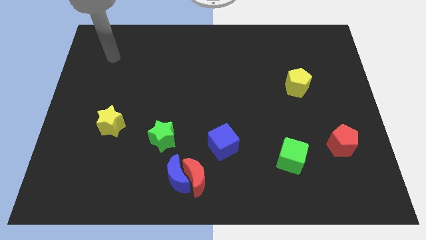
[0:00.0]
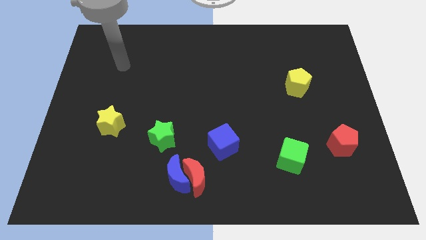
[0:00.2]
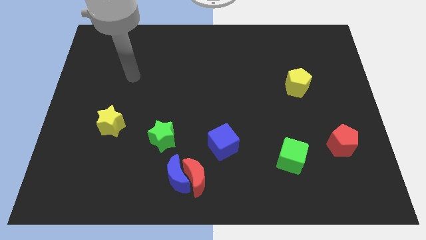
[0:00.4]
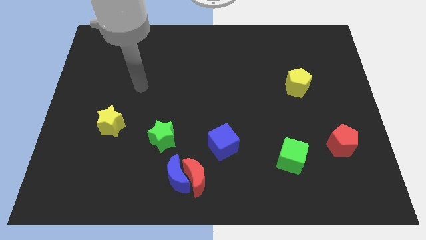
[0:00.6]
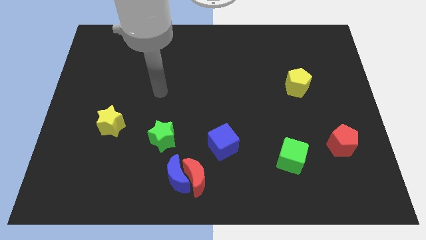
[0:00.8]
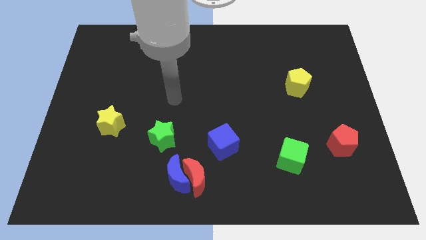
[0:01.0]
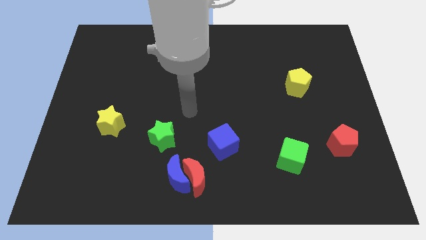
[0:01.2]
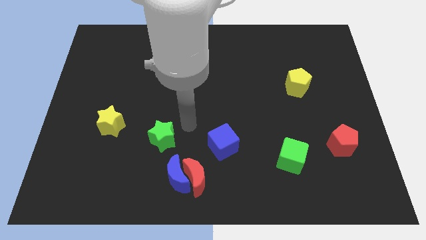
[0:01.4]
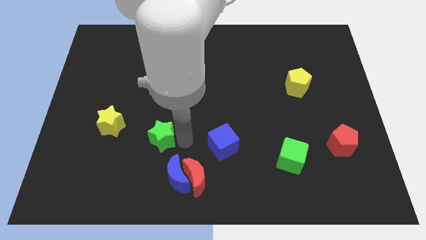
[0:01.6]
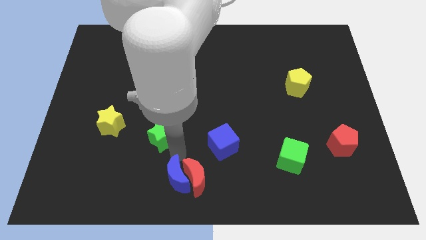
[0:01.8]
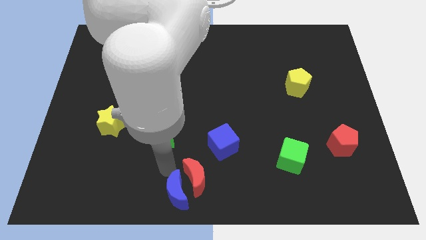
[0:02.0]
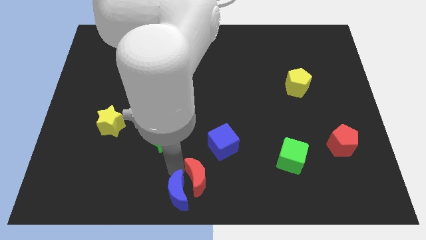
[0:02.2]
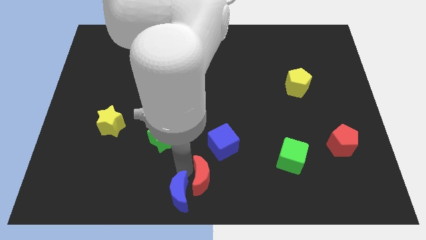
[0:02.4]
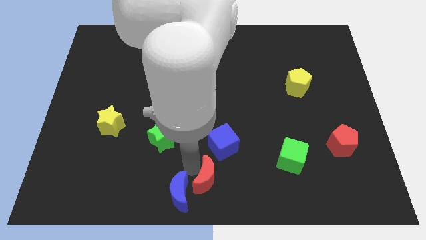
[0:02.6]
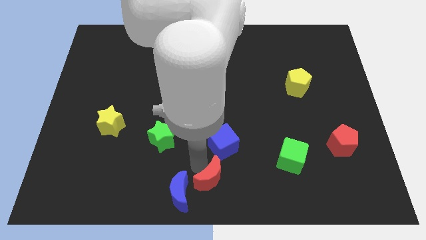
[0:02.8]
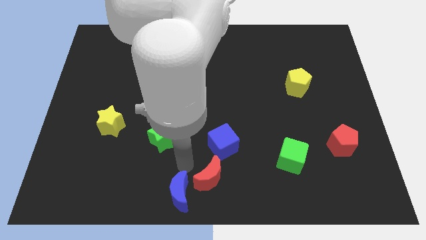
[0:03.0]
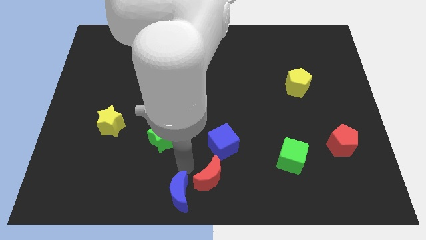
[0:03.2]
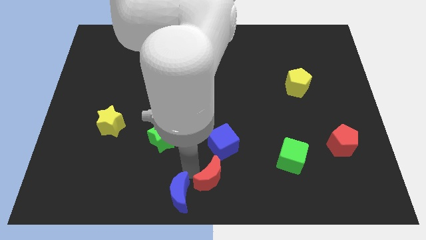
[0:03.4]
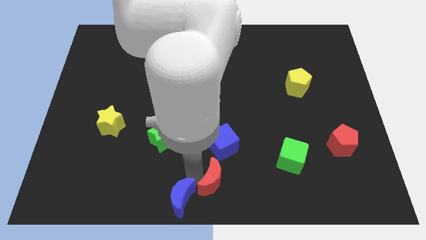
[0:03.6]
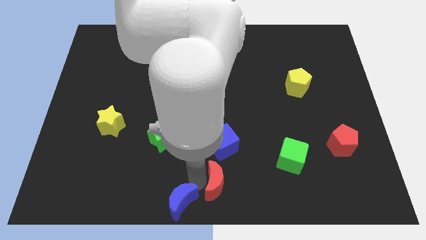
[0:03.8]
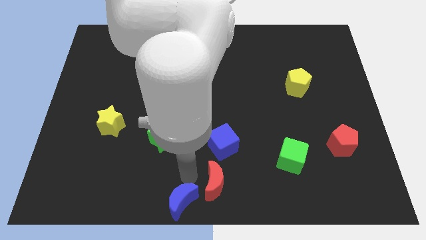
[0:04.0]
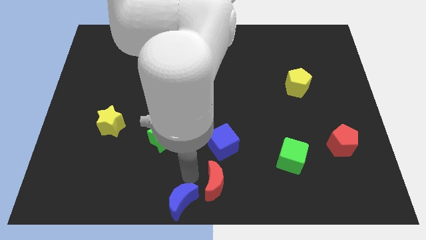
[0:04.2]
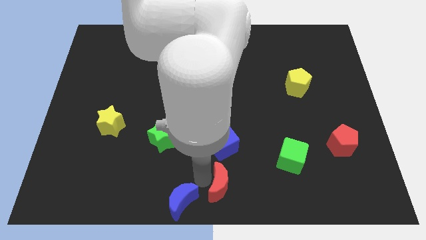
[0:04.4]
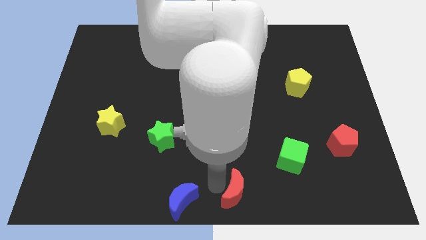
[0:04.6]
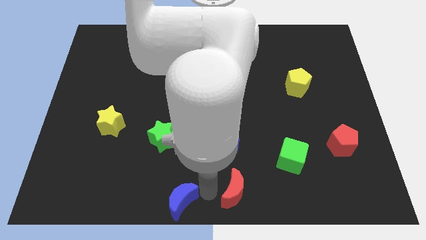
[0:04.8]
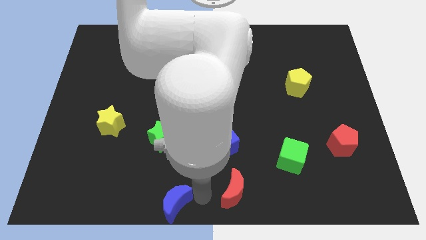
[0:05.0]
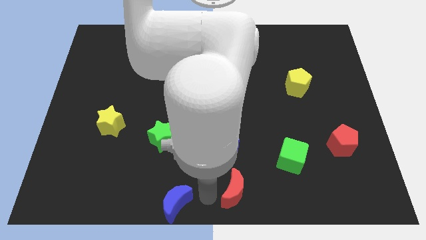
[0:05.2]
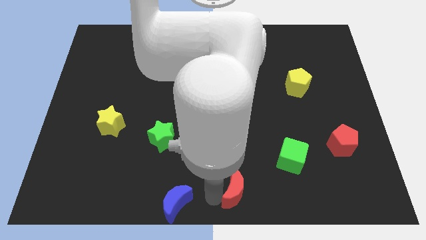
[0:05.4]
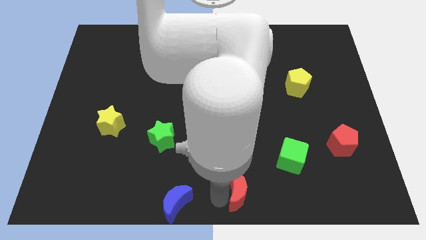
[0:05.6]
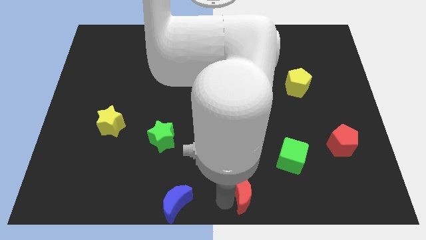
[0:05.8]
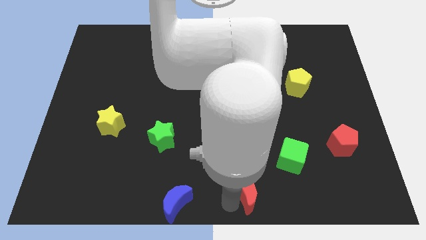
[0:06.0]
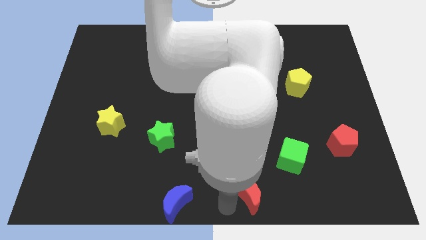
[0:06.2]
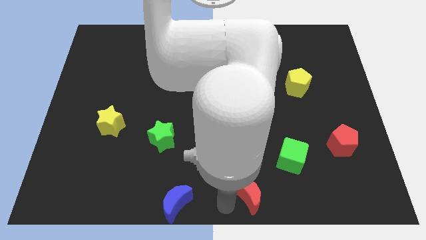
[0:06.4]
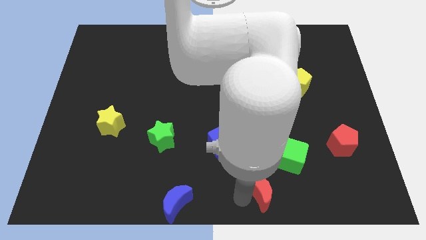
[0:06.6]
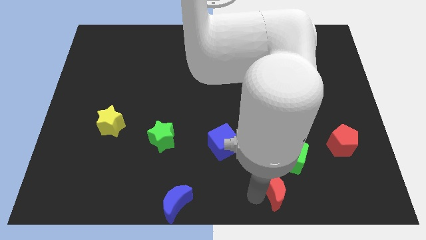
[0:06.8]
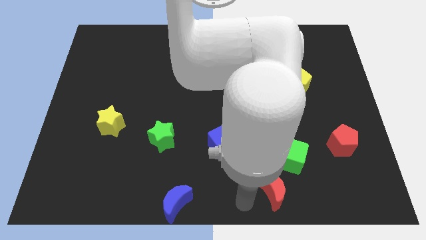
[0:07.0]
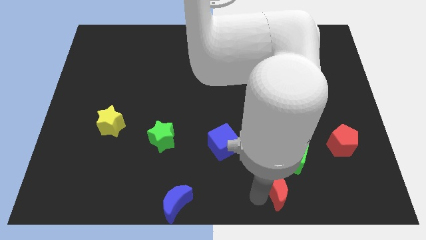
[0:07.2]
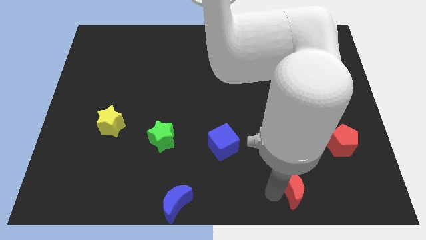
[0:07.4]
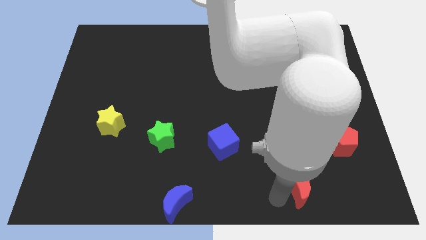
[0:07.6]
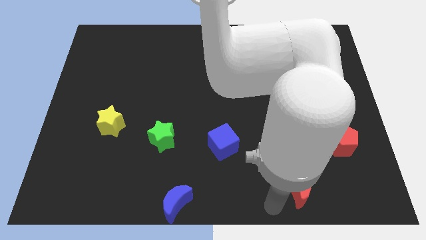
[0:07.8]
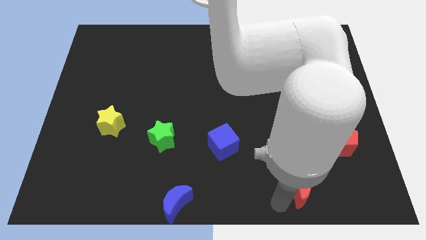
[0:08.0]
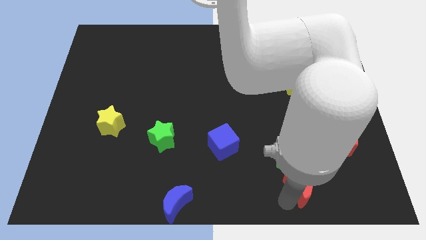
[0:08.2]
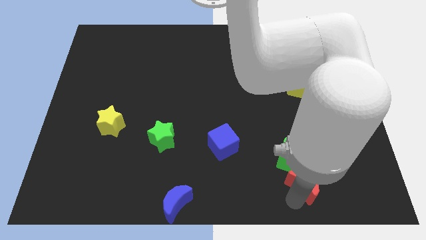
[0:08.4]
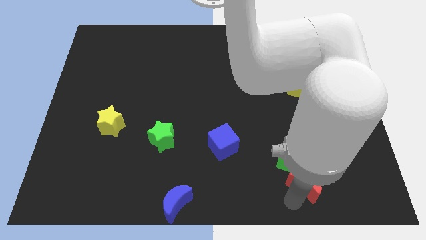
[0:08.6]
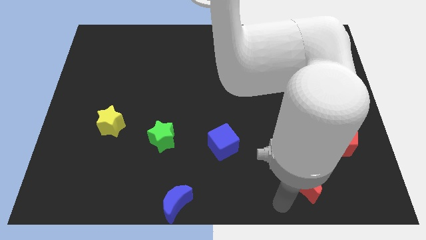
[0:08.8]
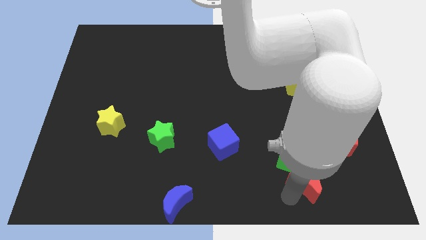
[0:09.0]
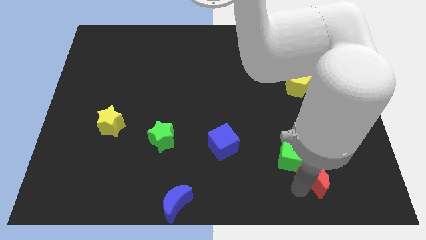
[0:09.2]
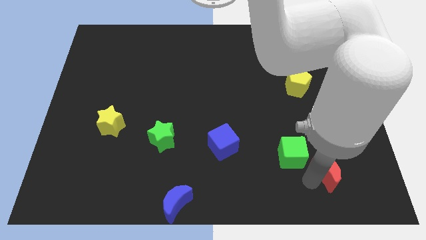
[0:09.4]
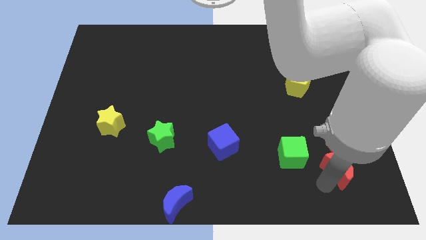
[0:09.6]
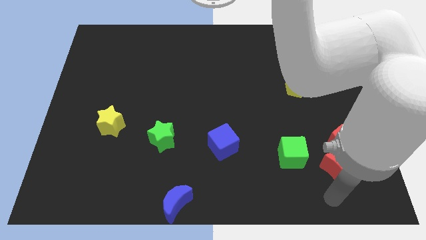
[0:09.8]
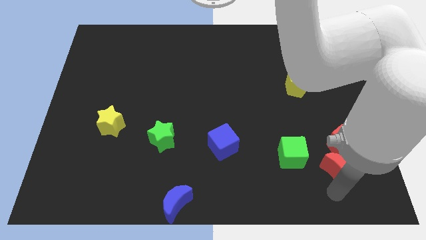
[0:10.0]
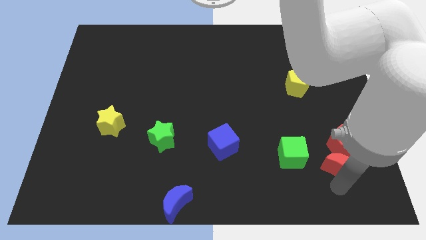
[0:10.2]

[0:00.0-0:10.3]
move the red moon towards the red pentagon

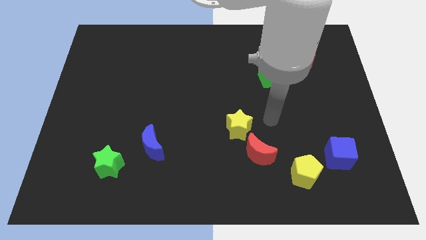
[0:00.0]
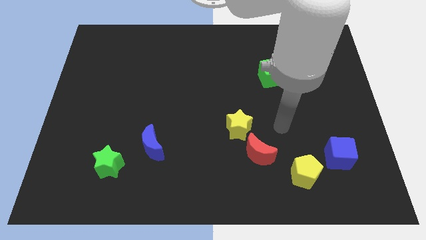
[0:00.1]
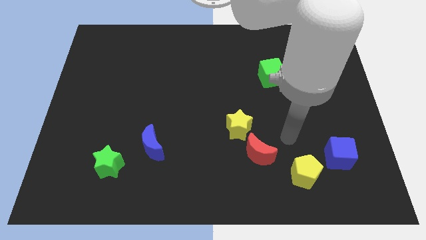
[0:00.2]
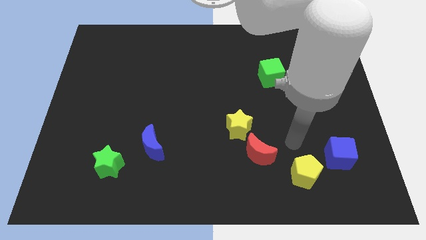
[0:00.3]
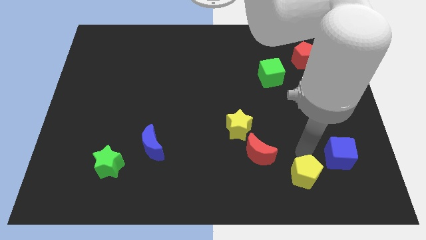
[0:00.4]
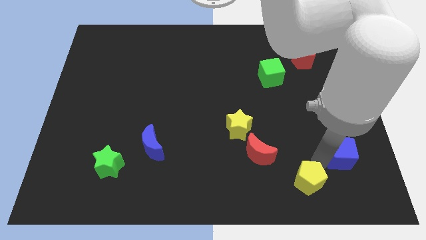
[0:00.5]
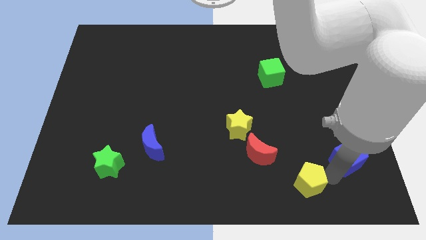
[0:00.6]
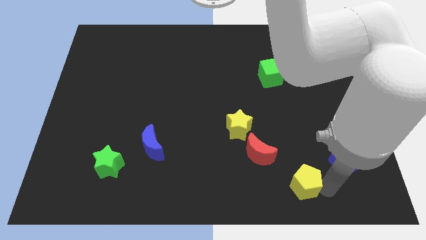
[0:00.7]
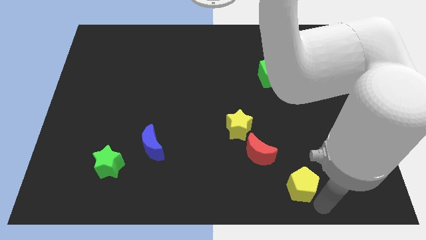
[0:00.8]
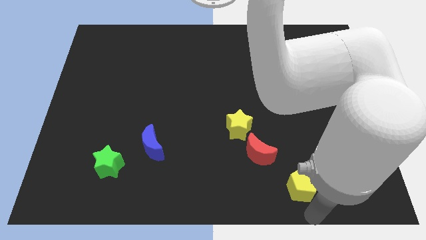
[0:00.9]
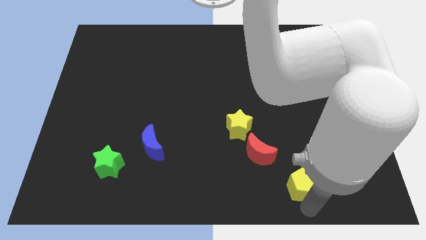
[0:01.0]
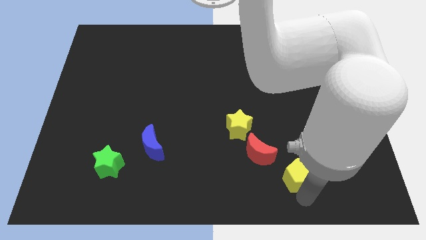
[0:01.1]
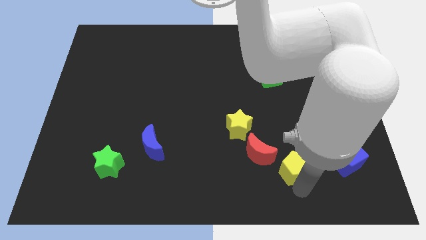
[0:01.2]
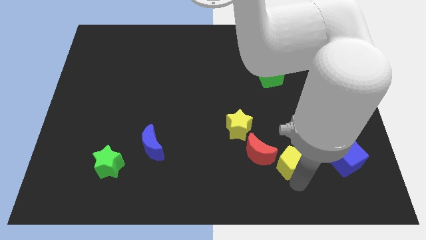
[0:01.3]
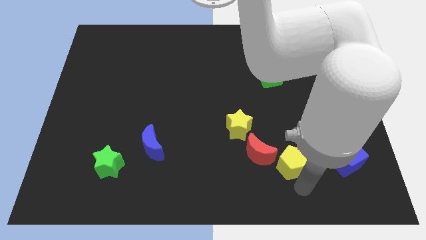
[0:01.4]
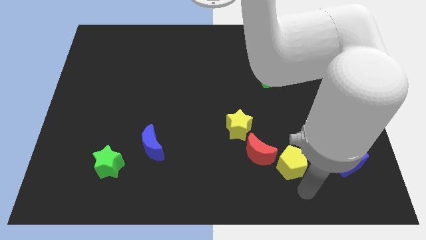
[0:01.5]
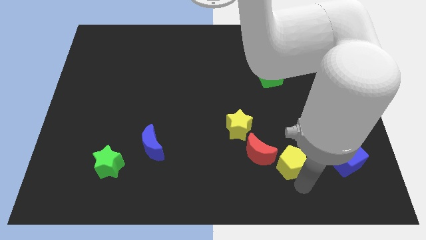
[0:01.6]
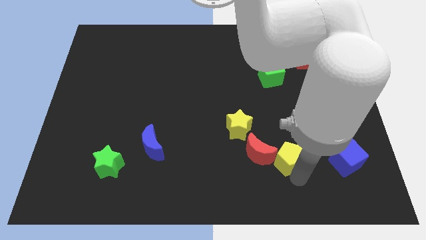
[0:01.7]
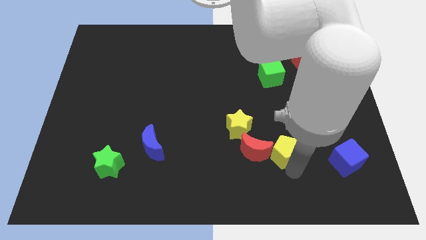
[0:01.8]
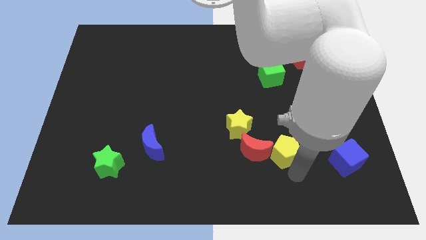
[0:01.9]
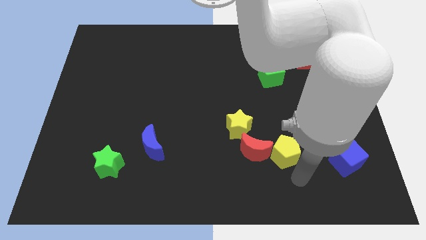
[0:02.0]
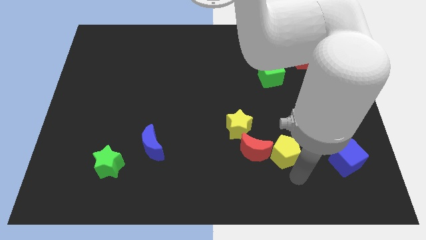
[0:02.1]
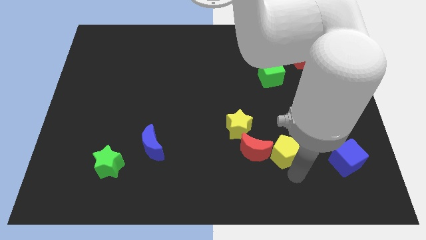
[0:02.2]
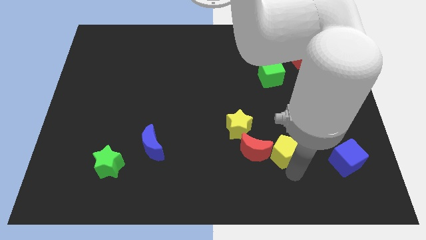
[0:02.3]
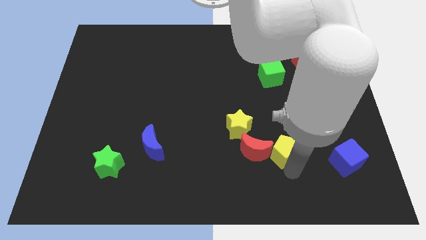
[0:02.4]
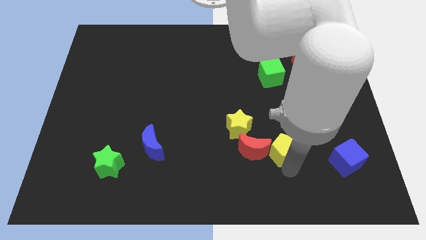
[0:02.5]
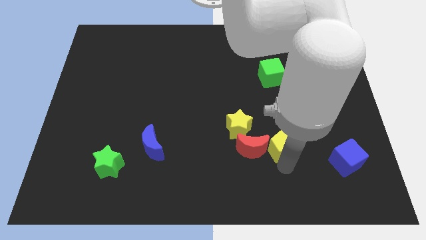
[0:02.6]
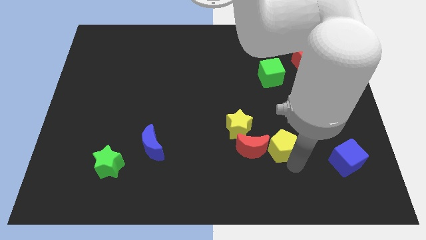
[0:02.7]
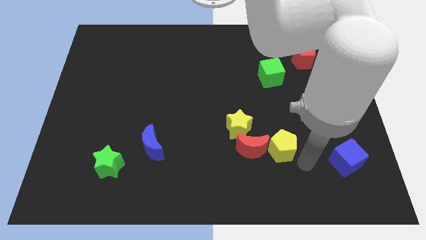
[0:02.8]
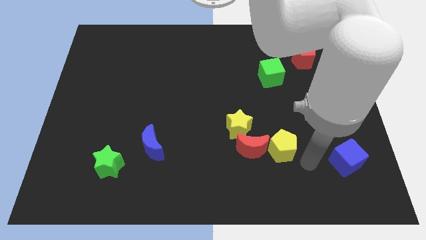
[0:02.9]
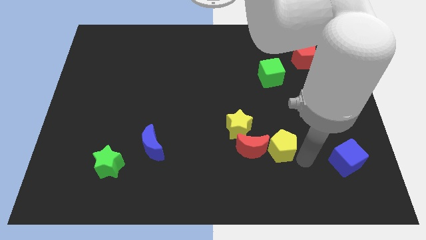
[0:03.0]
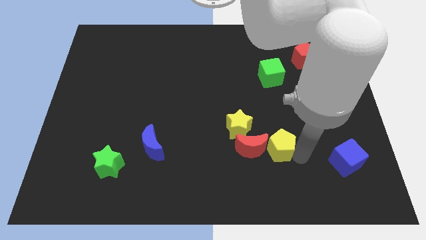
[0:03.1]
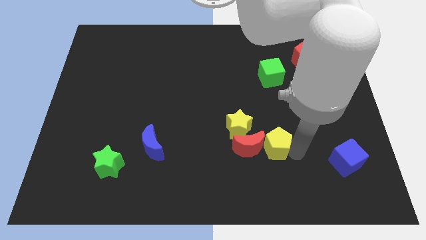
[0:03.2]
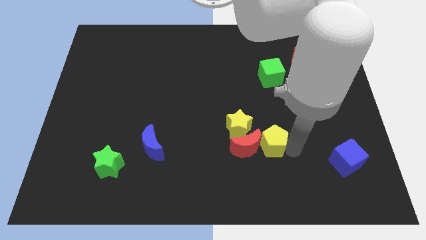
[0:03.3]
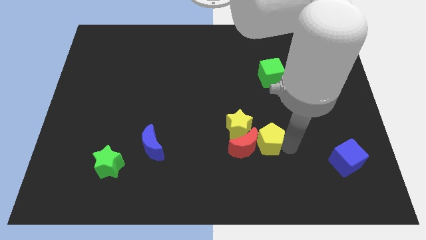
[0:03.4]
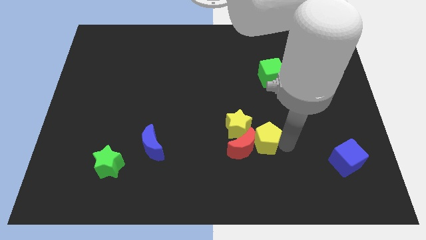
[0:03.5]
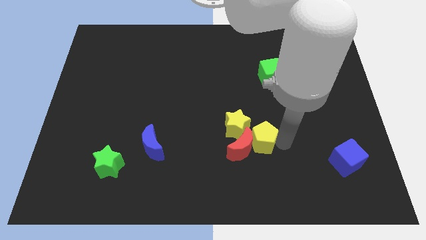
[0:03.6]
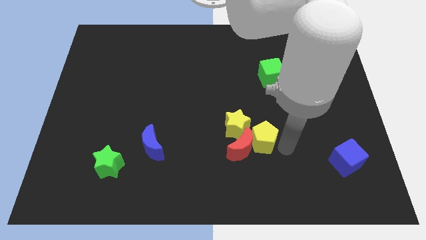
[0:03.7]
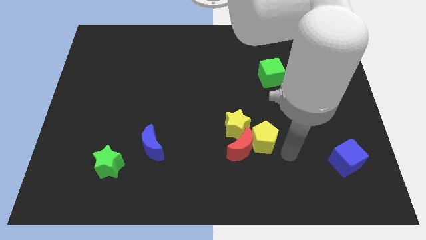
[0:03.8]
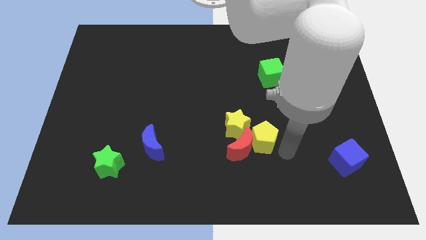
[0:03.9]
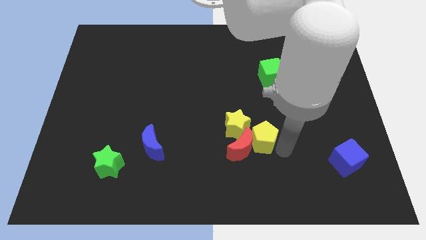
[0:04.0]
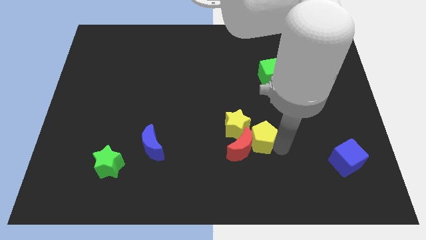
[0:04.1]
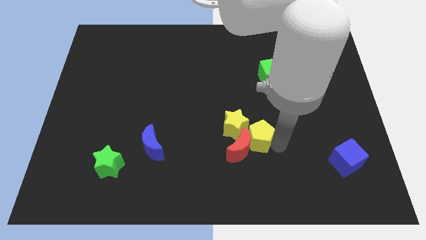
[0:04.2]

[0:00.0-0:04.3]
move the yellow pentagon towards the yellow star
